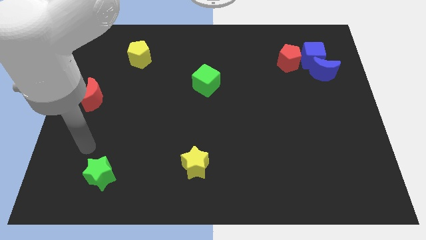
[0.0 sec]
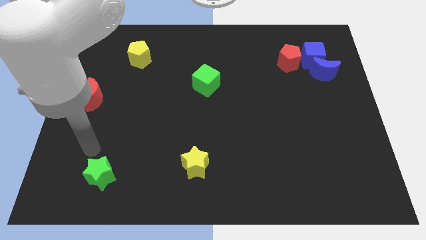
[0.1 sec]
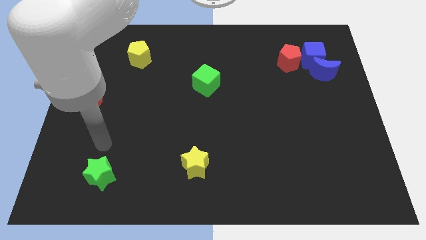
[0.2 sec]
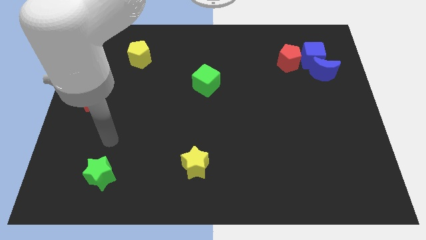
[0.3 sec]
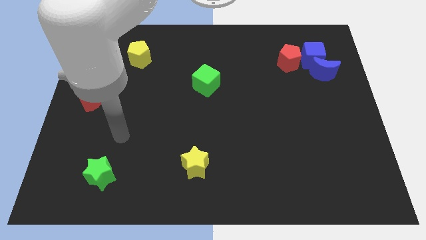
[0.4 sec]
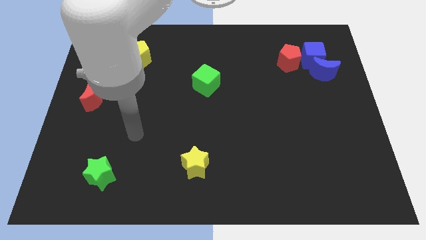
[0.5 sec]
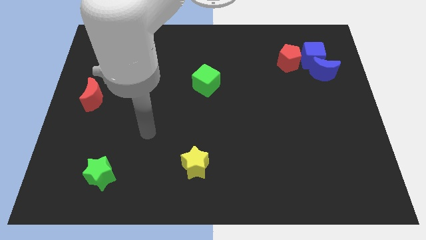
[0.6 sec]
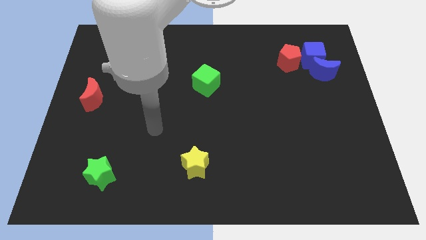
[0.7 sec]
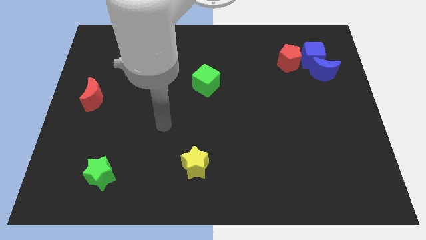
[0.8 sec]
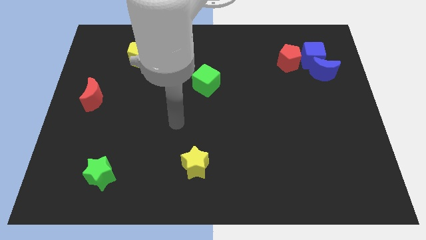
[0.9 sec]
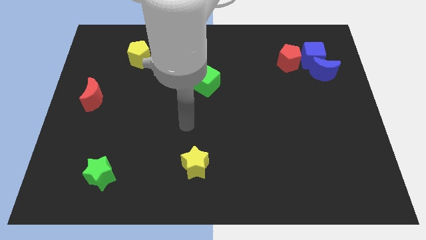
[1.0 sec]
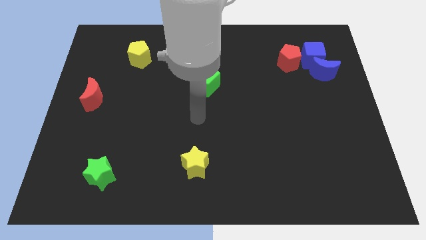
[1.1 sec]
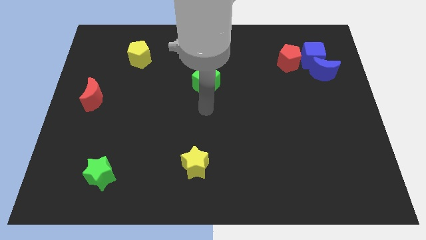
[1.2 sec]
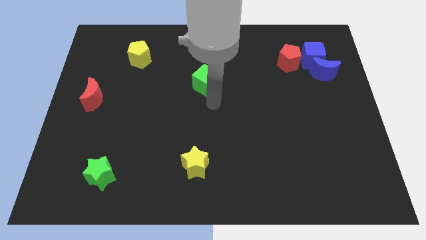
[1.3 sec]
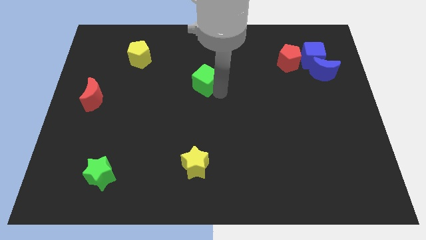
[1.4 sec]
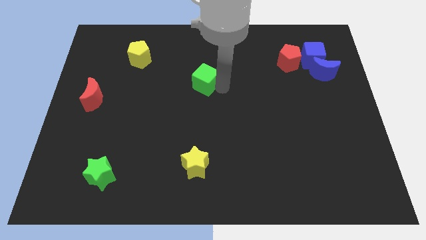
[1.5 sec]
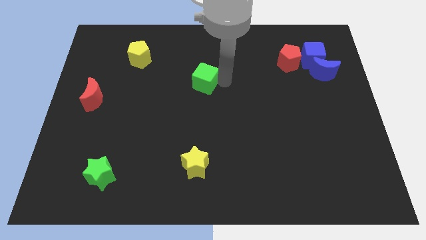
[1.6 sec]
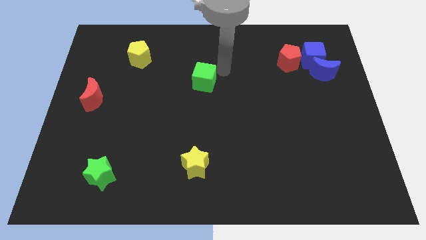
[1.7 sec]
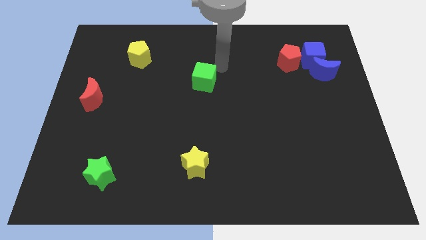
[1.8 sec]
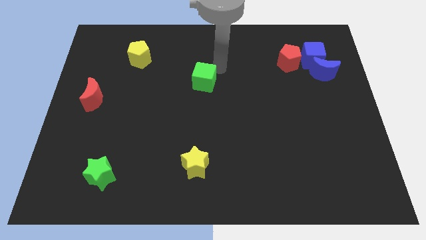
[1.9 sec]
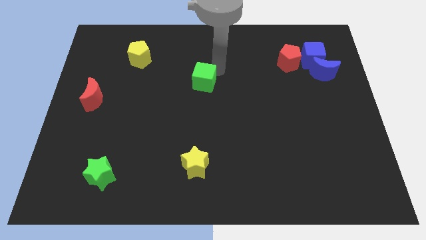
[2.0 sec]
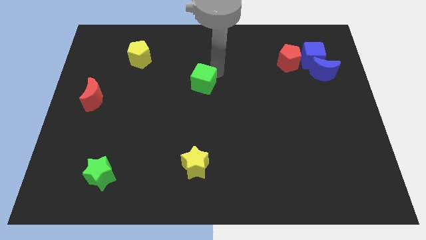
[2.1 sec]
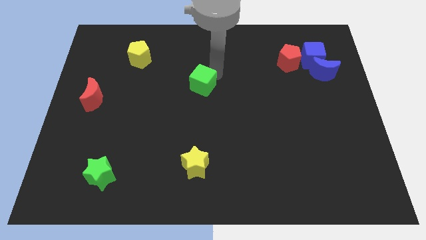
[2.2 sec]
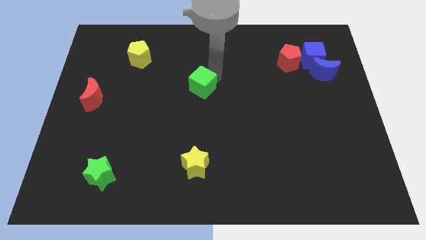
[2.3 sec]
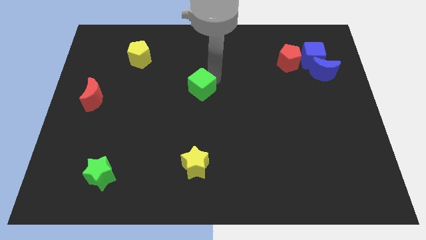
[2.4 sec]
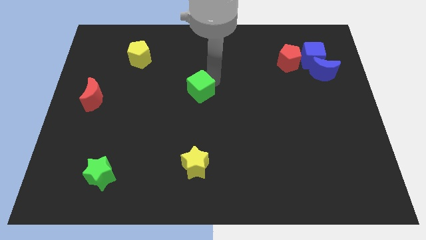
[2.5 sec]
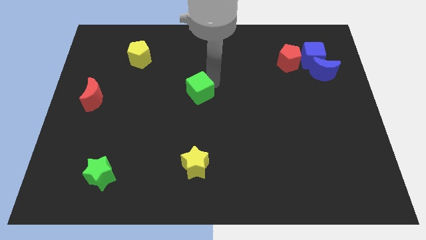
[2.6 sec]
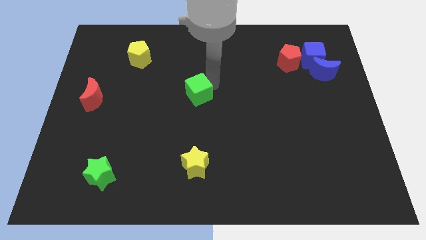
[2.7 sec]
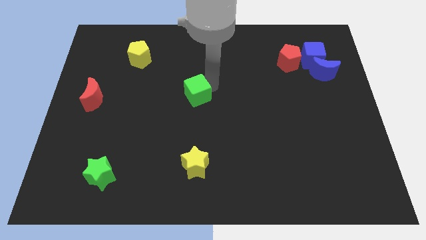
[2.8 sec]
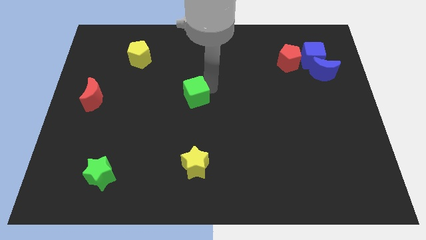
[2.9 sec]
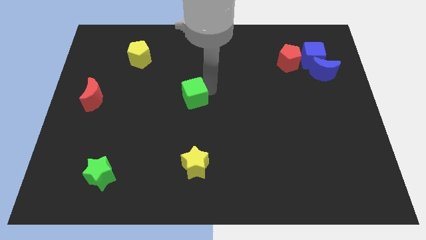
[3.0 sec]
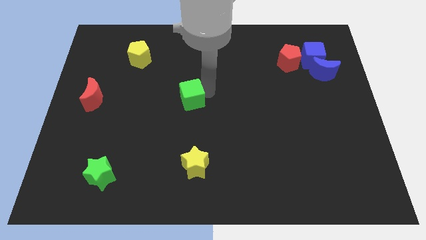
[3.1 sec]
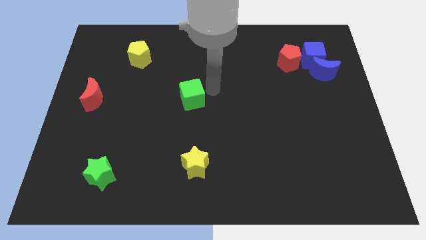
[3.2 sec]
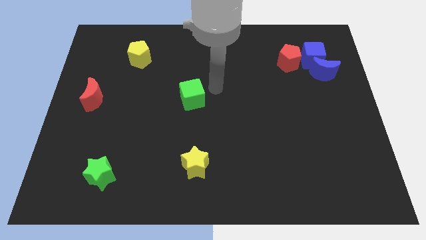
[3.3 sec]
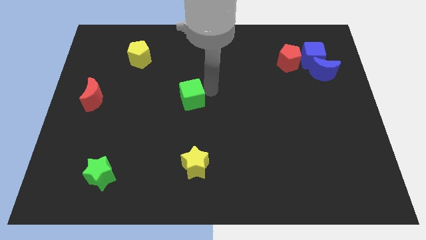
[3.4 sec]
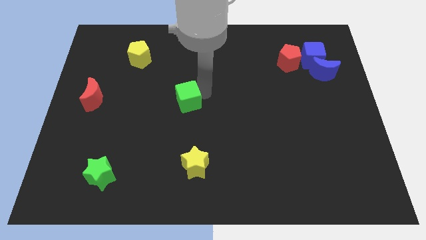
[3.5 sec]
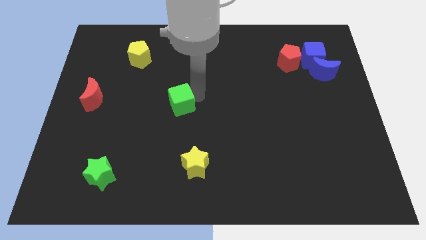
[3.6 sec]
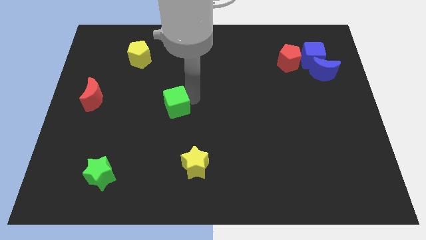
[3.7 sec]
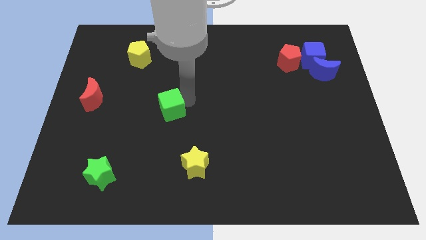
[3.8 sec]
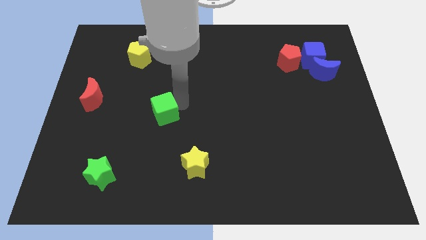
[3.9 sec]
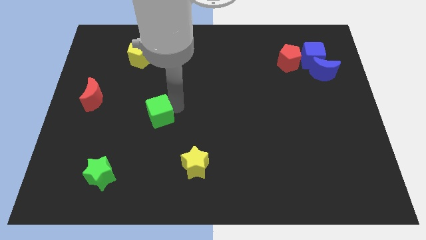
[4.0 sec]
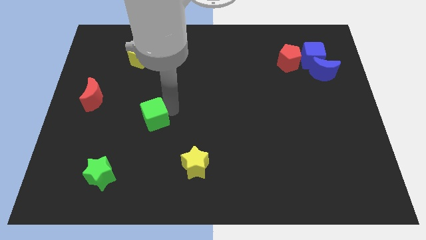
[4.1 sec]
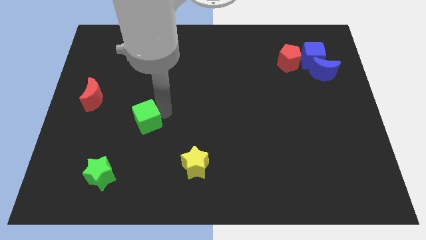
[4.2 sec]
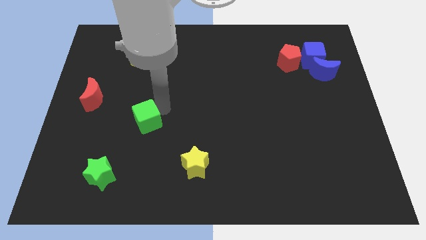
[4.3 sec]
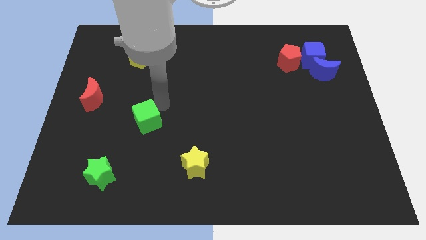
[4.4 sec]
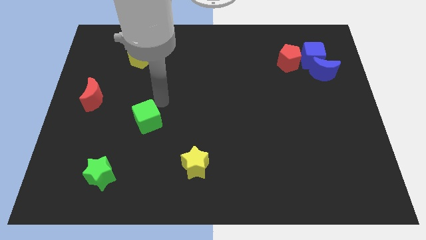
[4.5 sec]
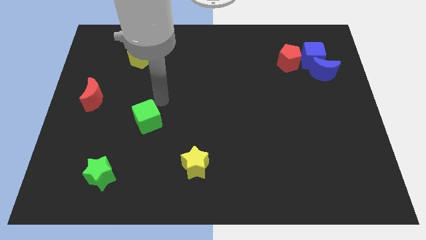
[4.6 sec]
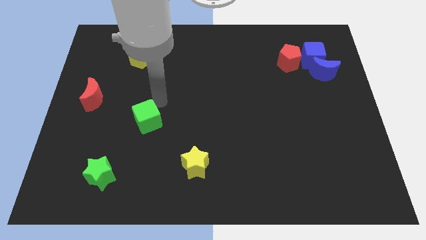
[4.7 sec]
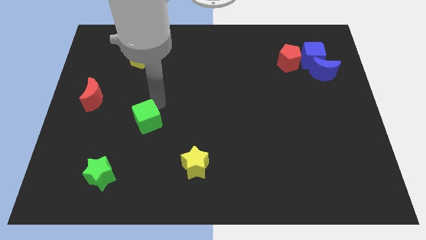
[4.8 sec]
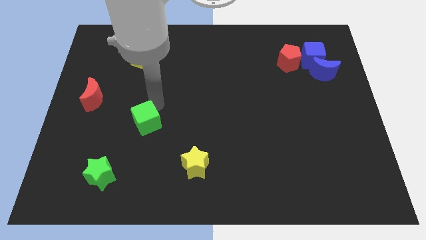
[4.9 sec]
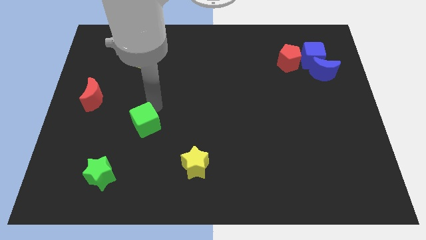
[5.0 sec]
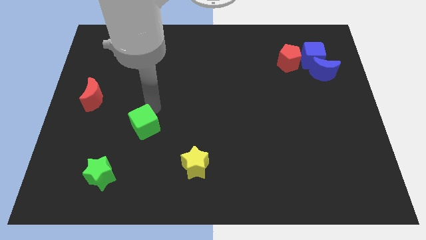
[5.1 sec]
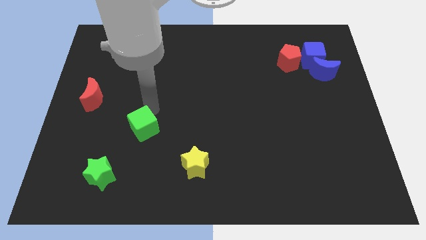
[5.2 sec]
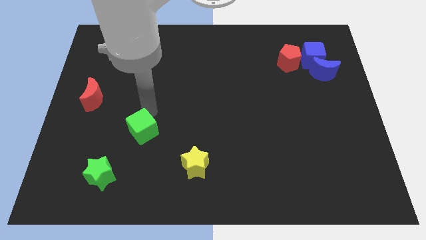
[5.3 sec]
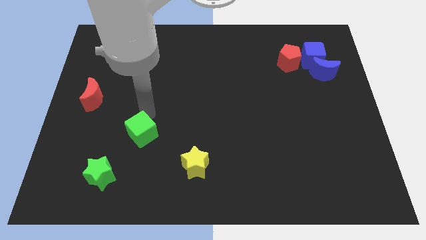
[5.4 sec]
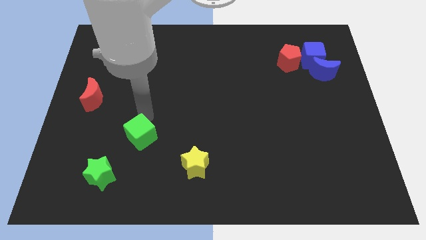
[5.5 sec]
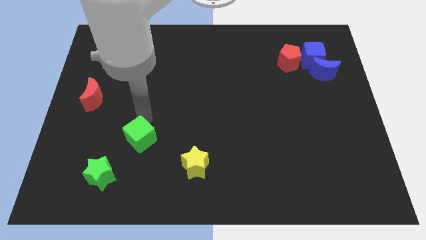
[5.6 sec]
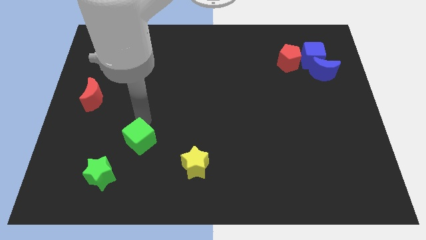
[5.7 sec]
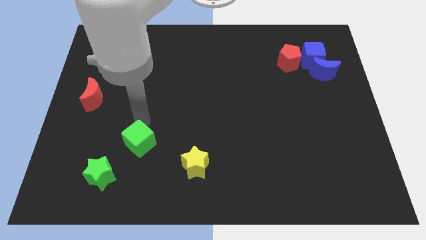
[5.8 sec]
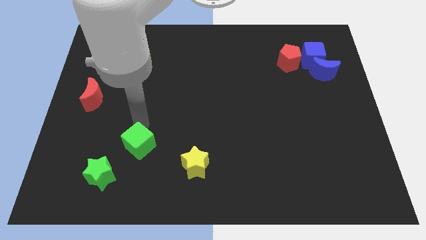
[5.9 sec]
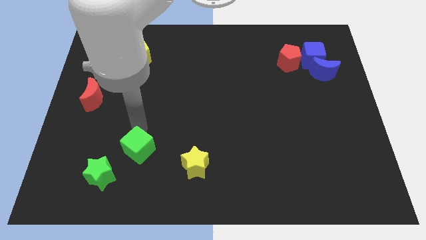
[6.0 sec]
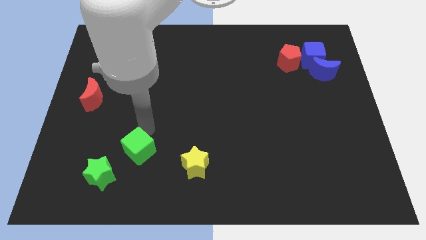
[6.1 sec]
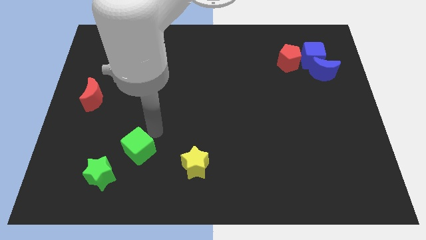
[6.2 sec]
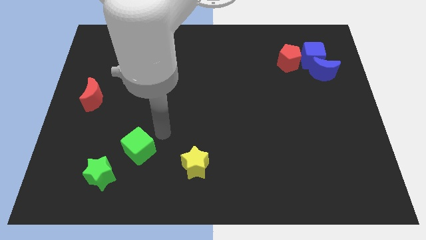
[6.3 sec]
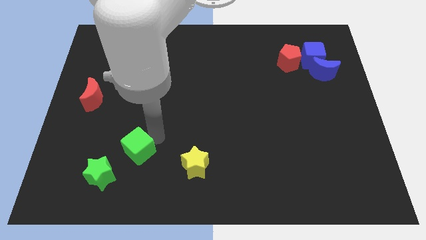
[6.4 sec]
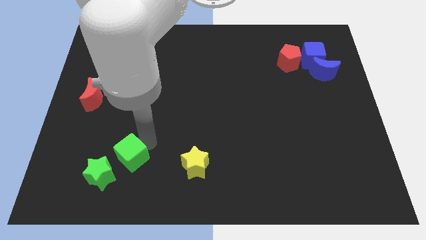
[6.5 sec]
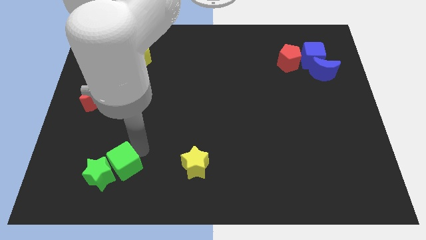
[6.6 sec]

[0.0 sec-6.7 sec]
move the green cube to the green star

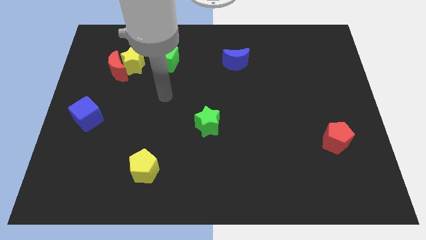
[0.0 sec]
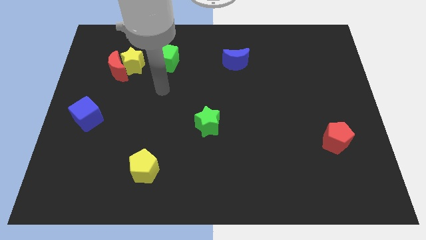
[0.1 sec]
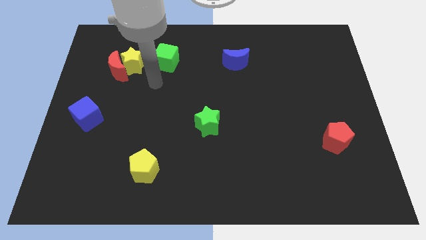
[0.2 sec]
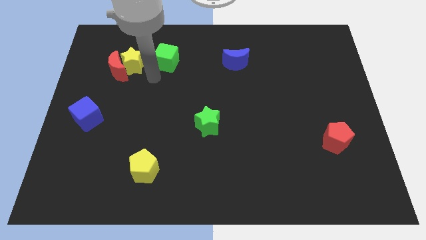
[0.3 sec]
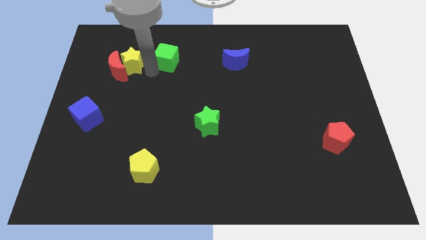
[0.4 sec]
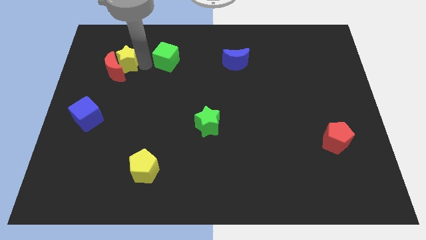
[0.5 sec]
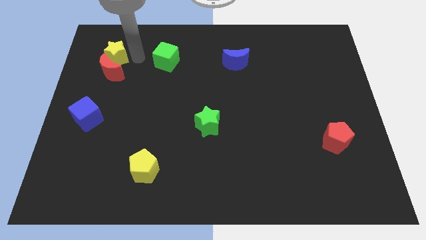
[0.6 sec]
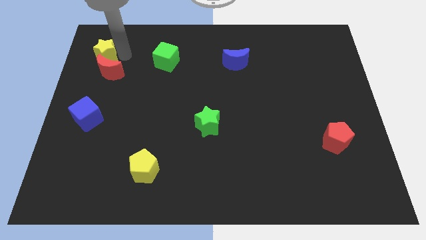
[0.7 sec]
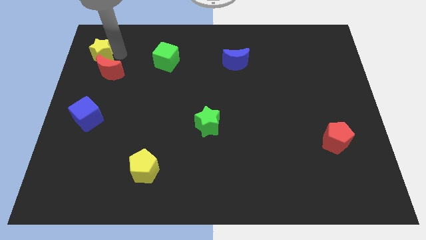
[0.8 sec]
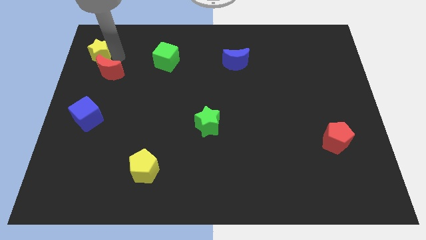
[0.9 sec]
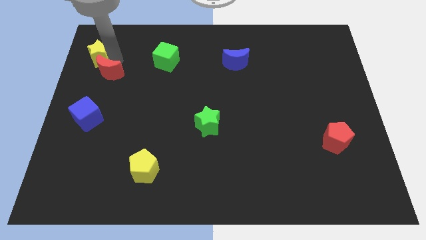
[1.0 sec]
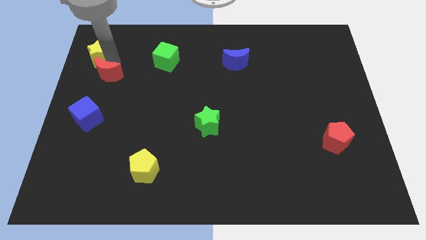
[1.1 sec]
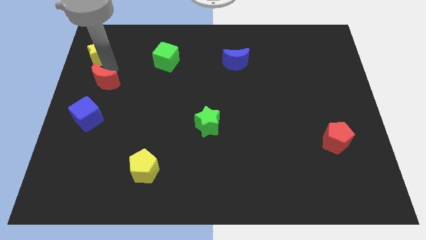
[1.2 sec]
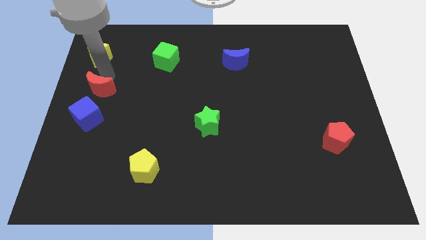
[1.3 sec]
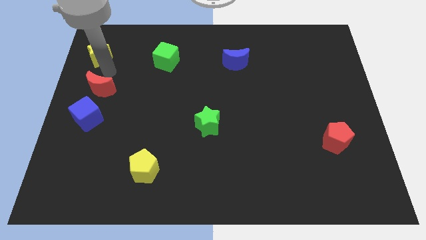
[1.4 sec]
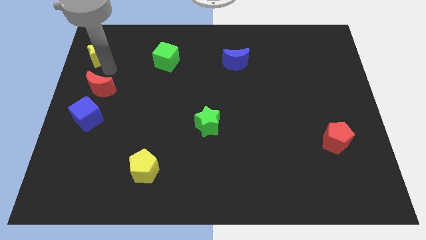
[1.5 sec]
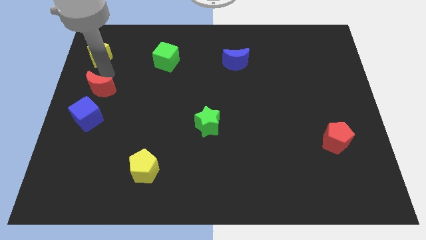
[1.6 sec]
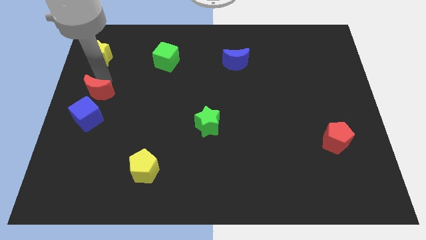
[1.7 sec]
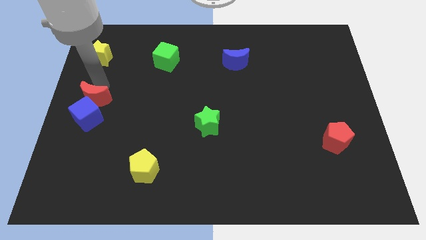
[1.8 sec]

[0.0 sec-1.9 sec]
slide the red moon to the blue cube
